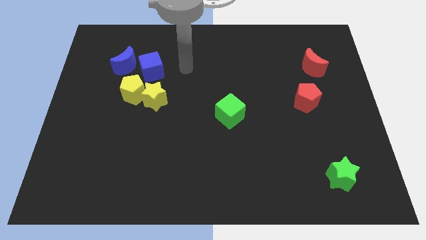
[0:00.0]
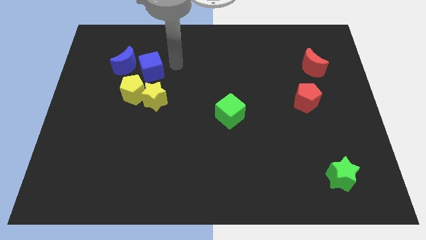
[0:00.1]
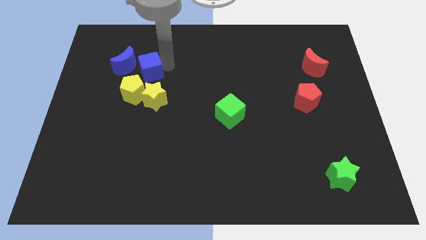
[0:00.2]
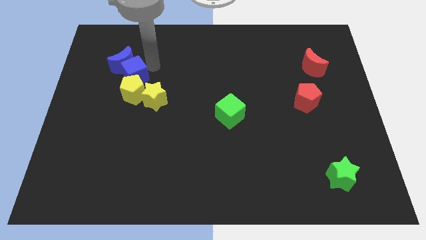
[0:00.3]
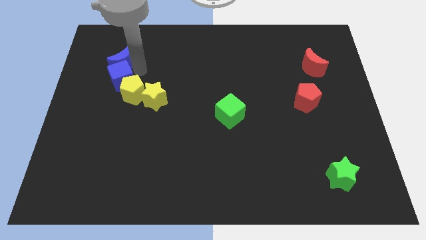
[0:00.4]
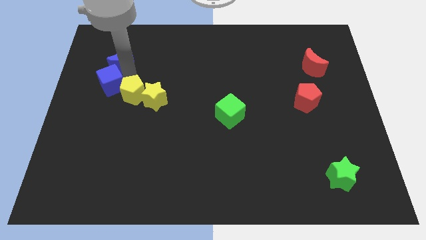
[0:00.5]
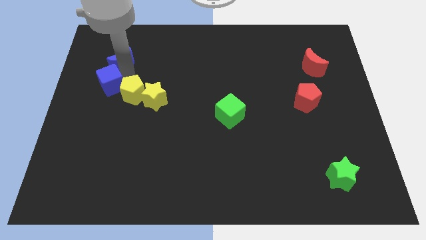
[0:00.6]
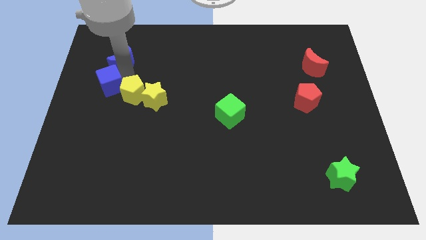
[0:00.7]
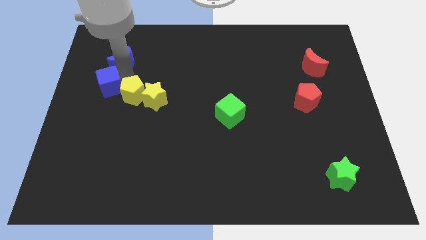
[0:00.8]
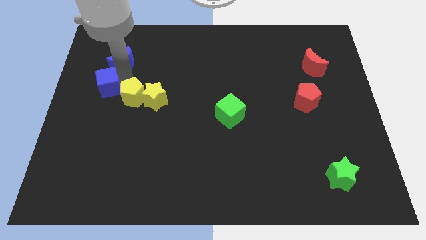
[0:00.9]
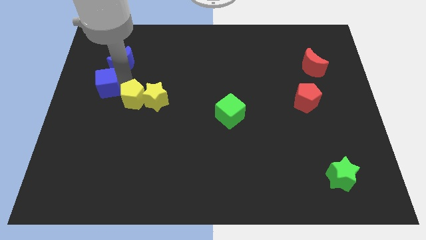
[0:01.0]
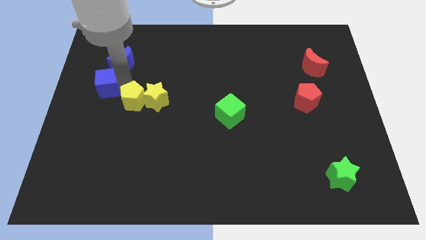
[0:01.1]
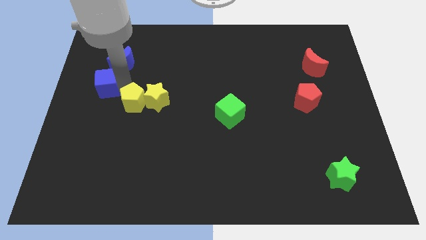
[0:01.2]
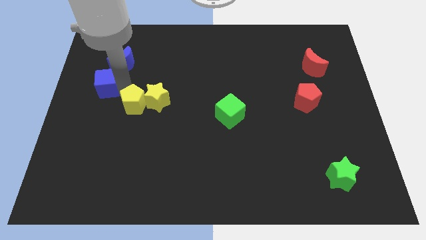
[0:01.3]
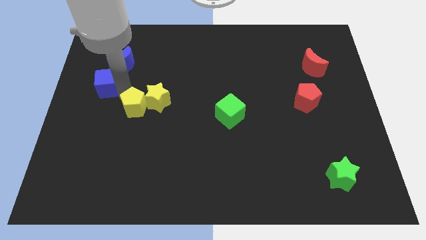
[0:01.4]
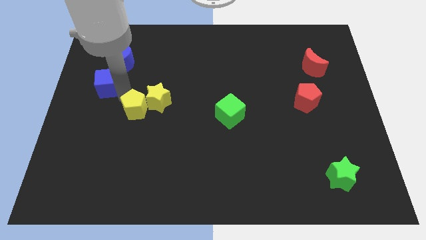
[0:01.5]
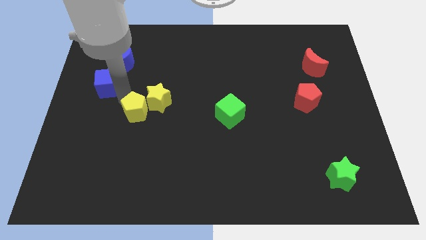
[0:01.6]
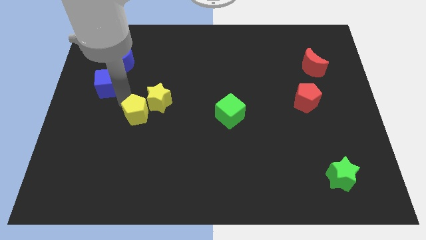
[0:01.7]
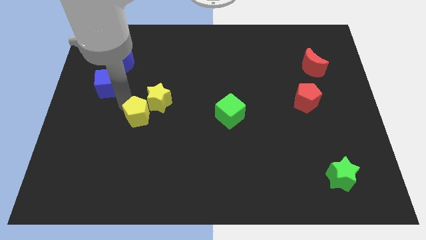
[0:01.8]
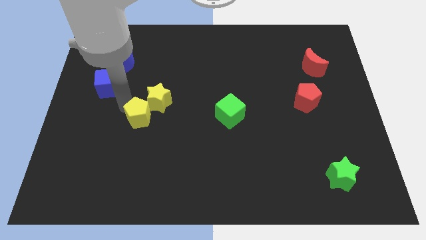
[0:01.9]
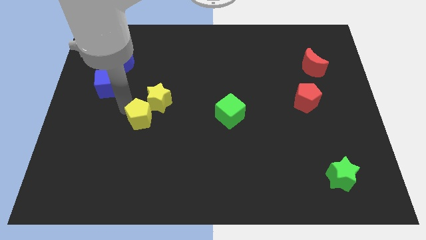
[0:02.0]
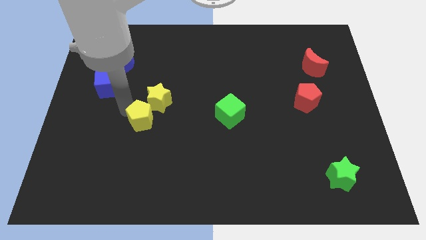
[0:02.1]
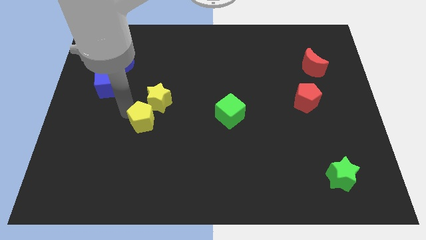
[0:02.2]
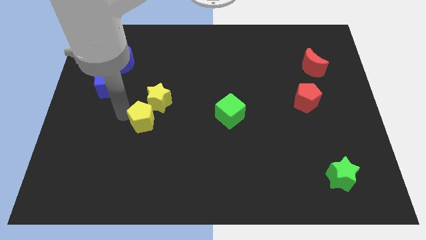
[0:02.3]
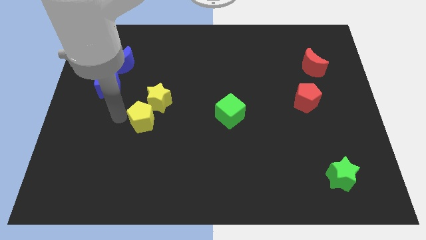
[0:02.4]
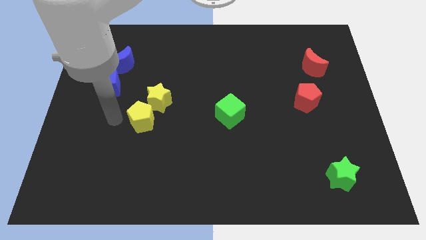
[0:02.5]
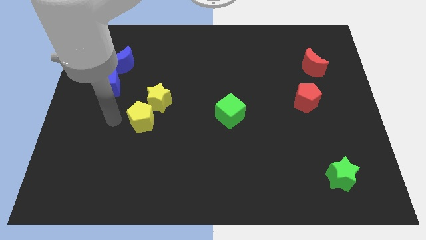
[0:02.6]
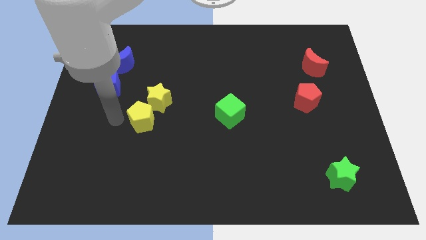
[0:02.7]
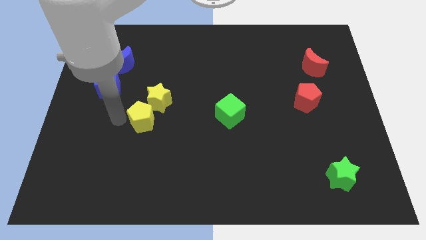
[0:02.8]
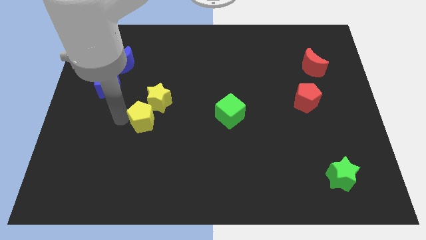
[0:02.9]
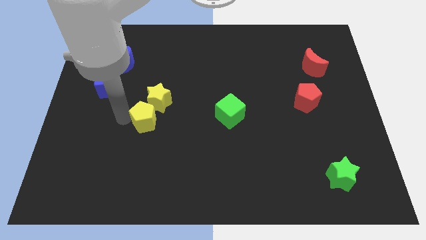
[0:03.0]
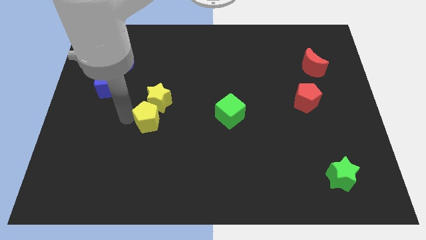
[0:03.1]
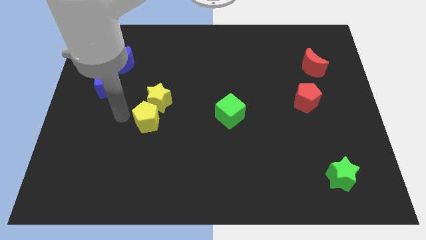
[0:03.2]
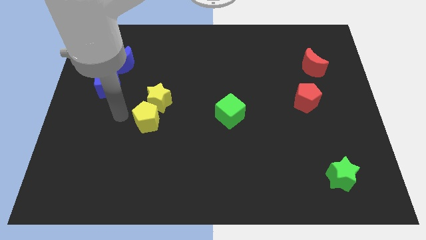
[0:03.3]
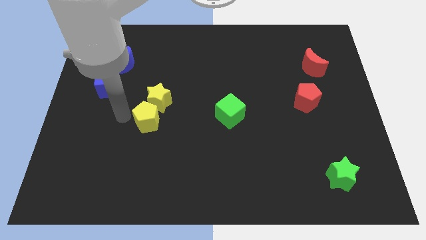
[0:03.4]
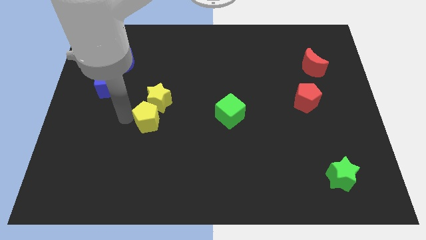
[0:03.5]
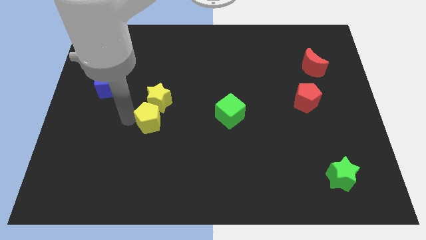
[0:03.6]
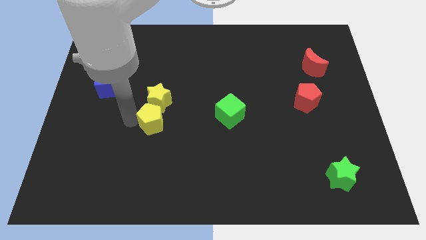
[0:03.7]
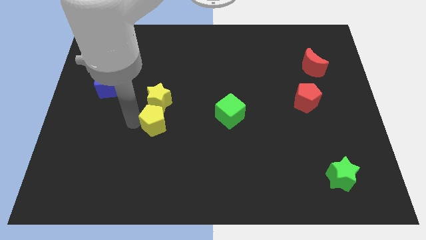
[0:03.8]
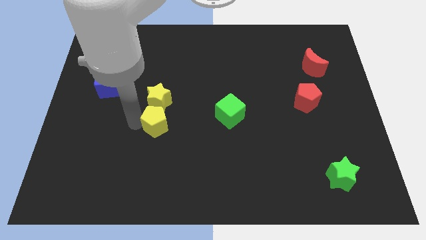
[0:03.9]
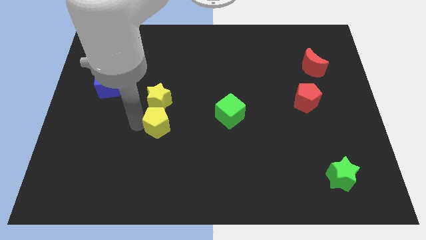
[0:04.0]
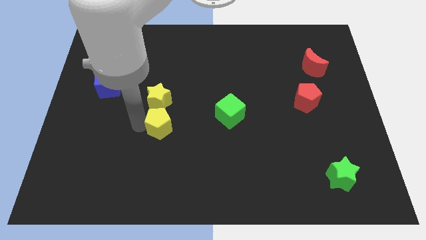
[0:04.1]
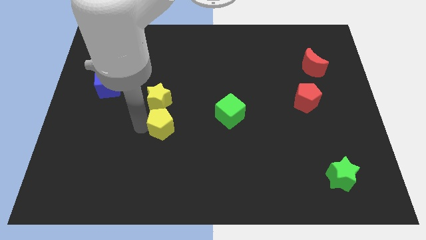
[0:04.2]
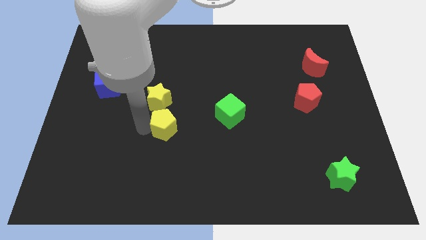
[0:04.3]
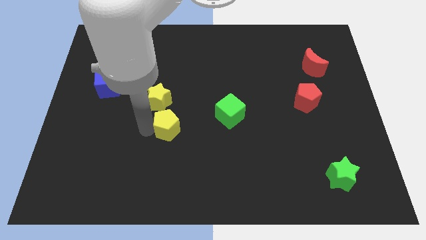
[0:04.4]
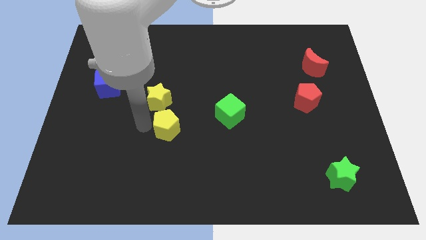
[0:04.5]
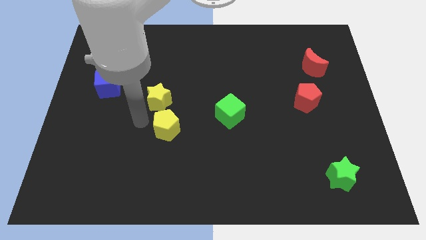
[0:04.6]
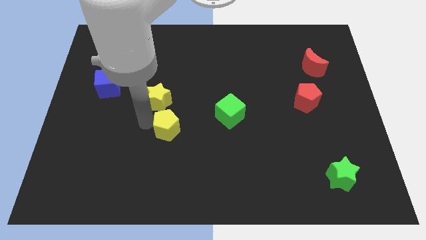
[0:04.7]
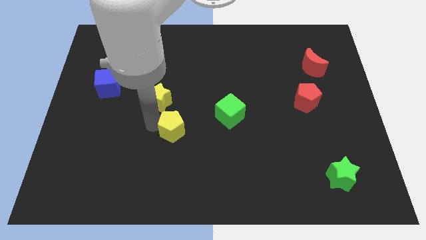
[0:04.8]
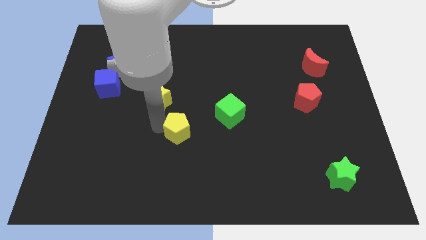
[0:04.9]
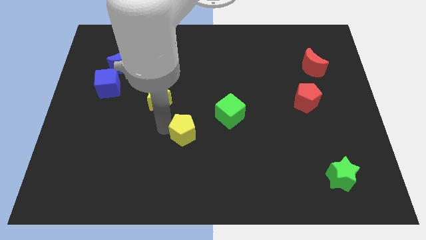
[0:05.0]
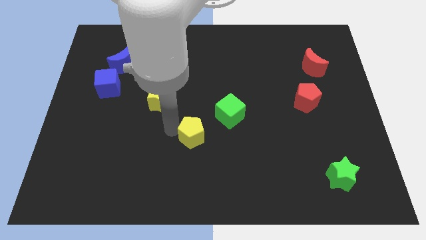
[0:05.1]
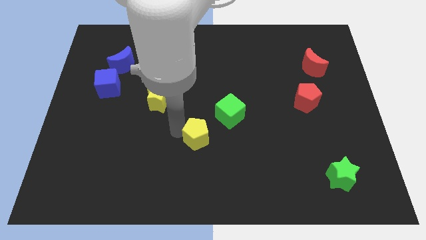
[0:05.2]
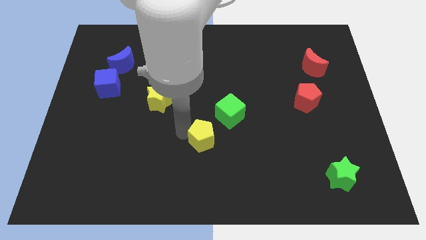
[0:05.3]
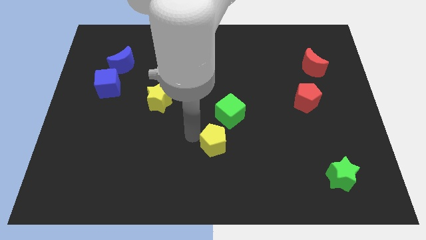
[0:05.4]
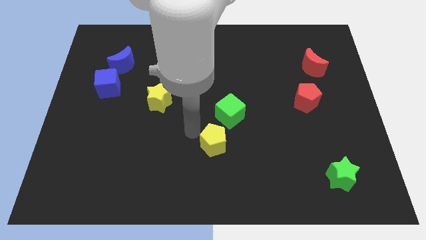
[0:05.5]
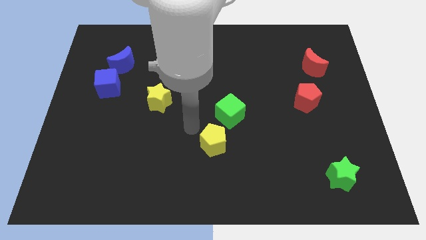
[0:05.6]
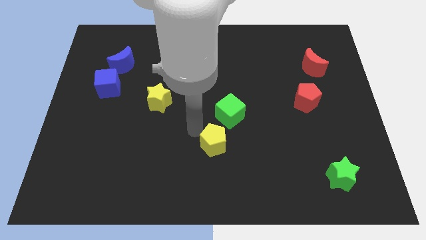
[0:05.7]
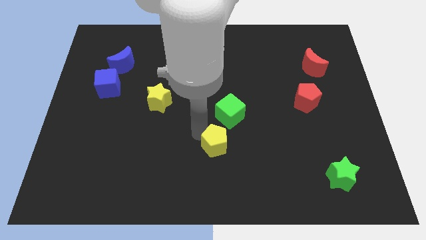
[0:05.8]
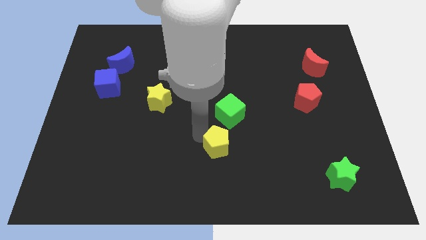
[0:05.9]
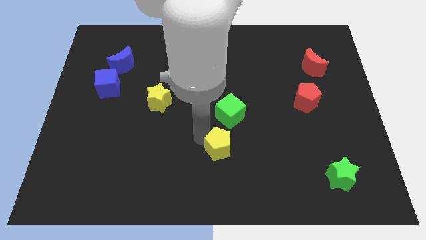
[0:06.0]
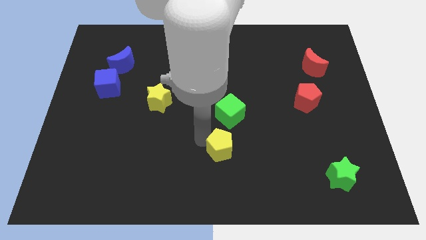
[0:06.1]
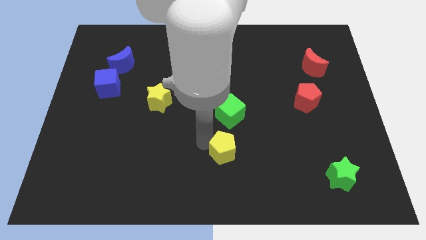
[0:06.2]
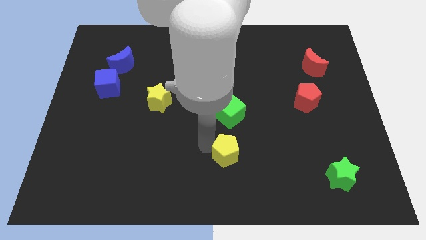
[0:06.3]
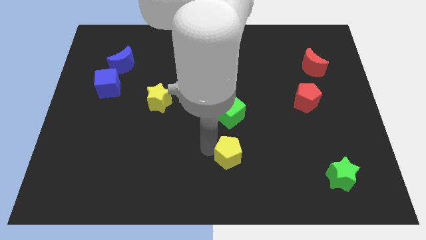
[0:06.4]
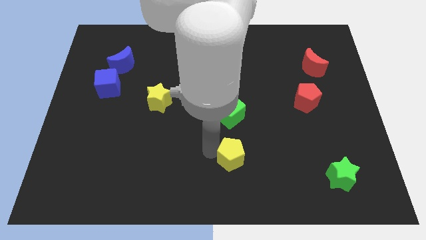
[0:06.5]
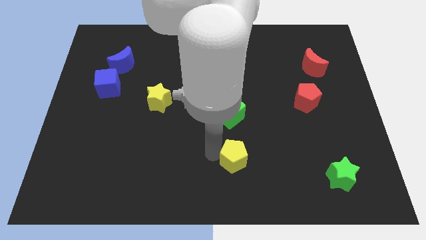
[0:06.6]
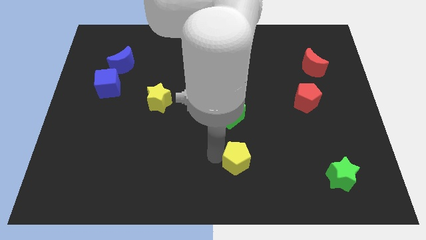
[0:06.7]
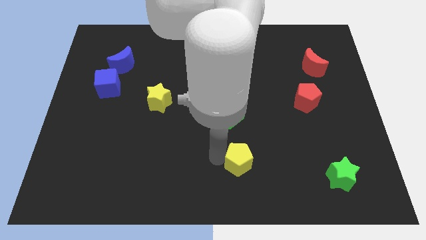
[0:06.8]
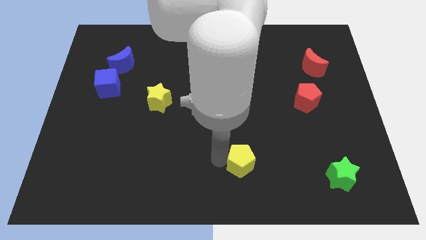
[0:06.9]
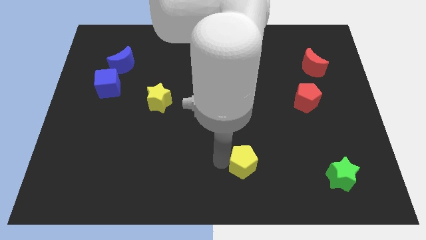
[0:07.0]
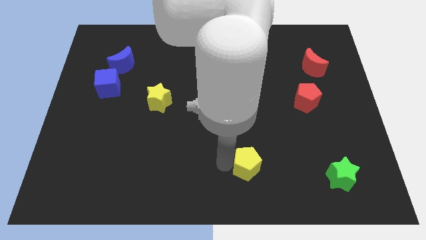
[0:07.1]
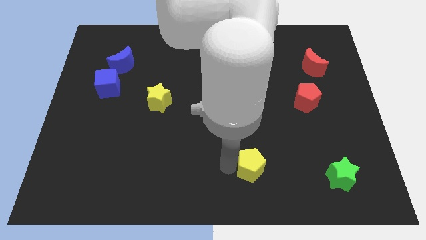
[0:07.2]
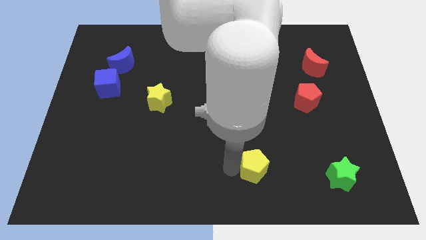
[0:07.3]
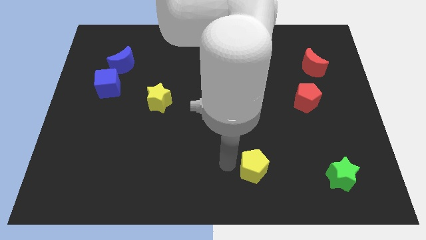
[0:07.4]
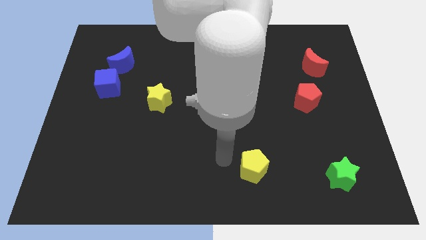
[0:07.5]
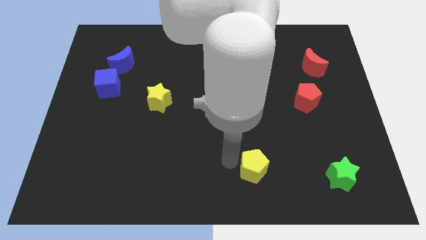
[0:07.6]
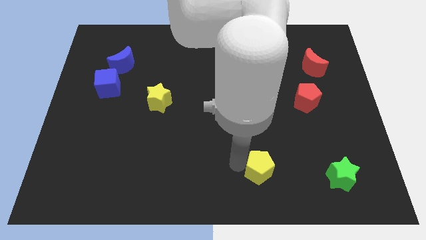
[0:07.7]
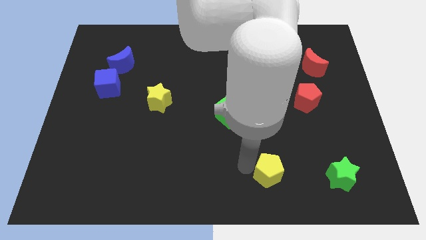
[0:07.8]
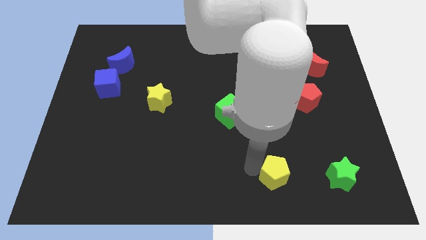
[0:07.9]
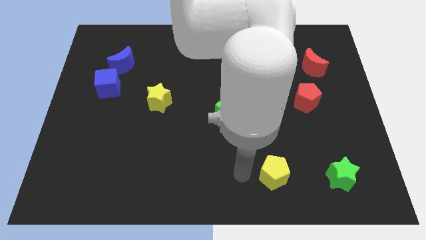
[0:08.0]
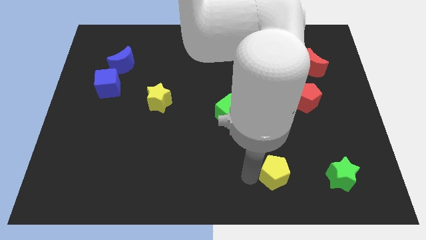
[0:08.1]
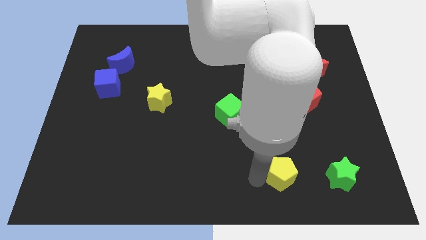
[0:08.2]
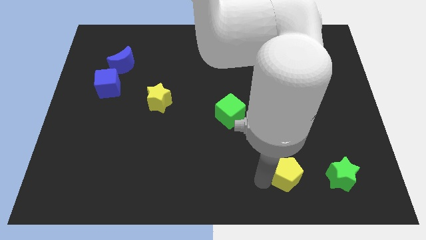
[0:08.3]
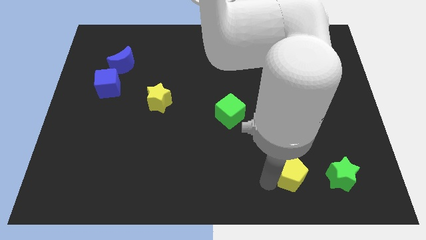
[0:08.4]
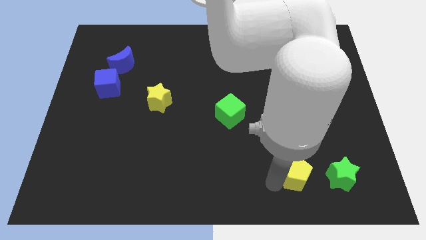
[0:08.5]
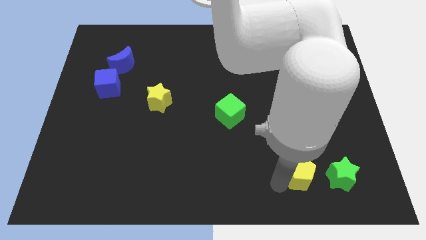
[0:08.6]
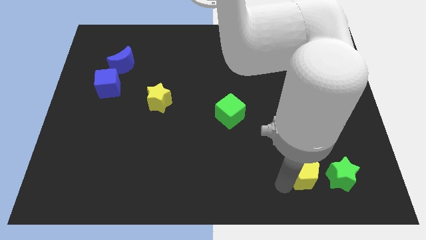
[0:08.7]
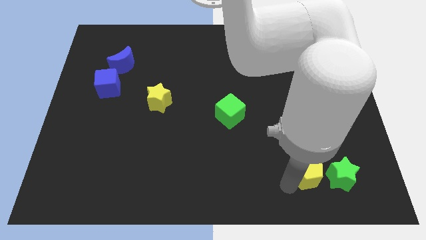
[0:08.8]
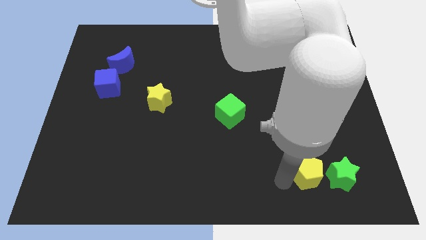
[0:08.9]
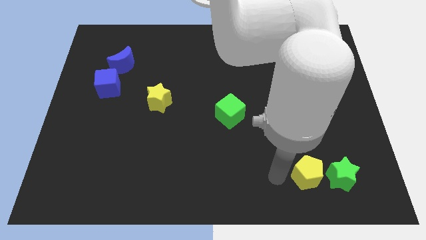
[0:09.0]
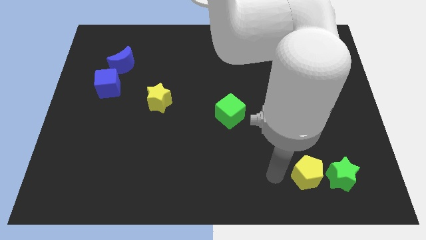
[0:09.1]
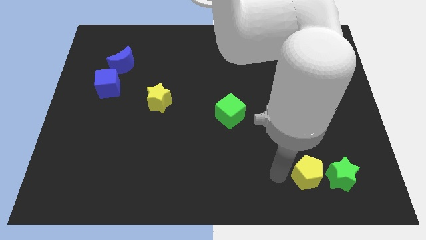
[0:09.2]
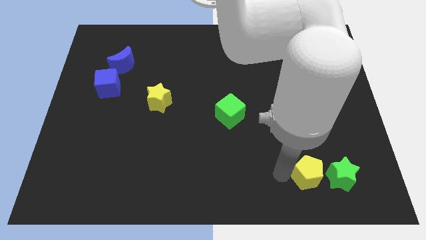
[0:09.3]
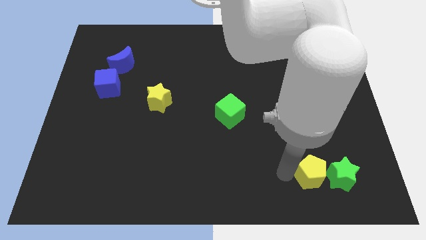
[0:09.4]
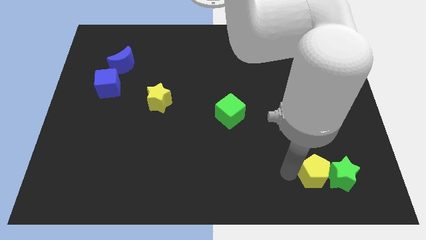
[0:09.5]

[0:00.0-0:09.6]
push the yellow pentagon close to the green star
